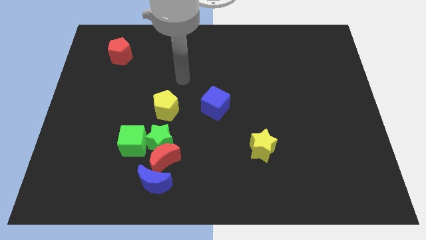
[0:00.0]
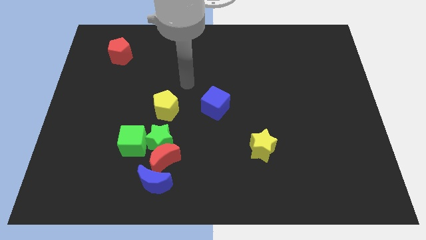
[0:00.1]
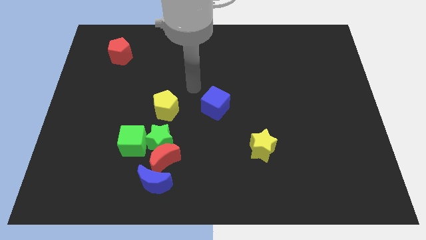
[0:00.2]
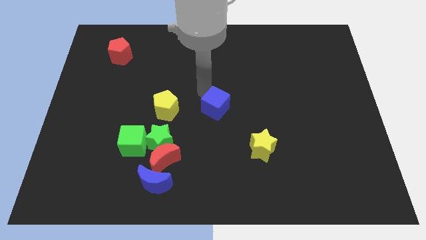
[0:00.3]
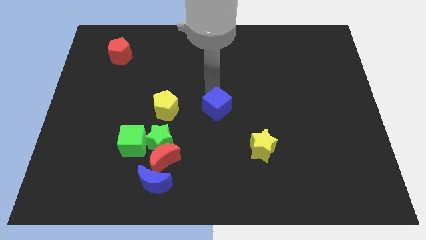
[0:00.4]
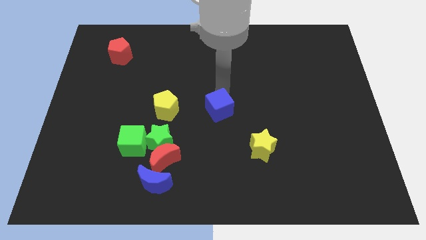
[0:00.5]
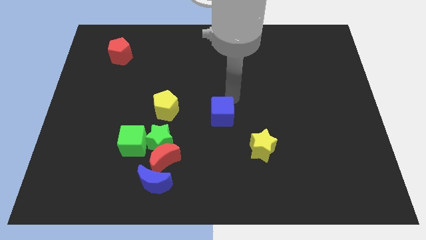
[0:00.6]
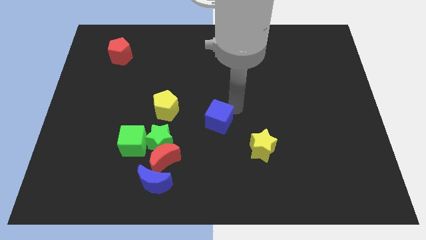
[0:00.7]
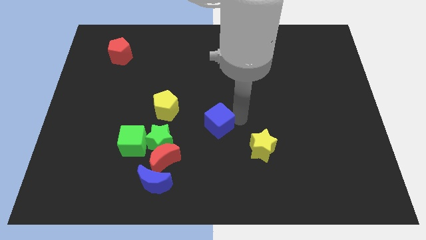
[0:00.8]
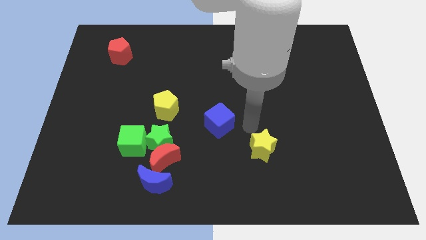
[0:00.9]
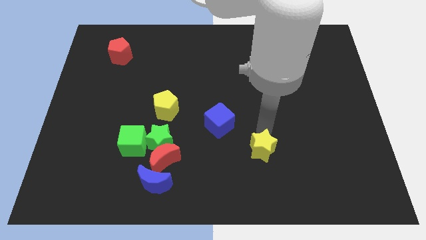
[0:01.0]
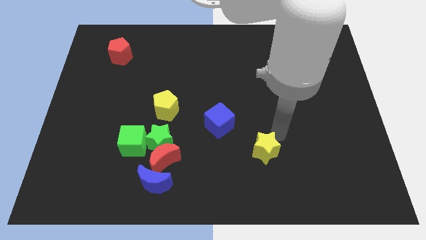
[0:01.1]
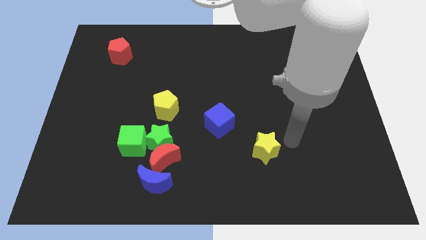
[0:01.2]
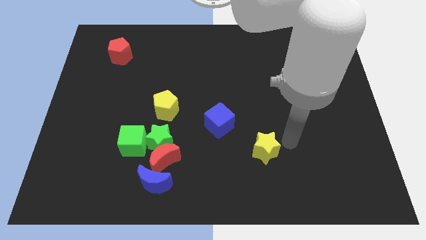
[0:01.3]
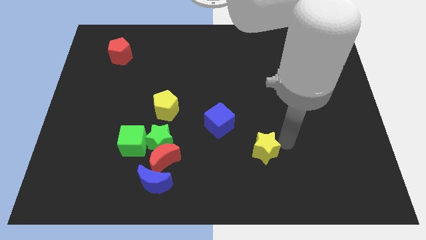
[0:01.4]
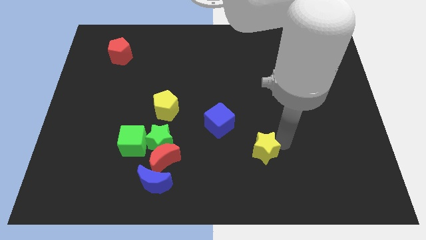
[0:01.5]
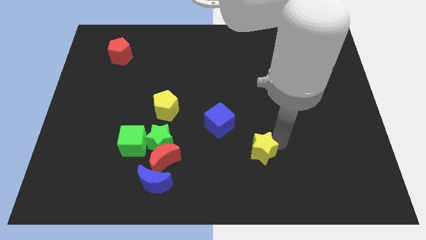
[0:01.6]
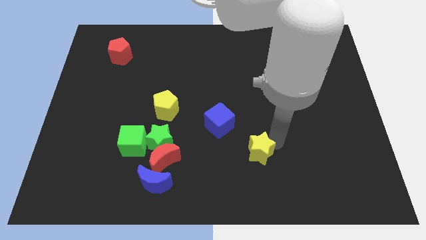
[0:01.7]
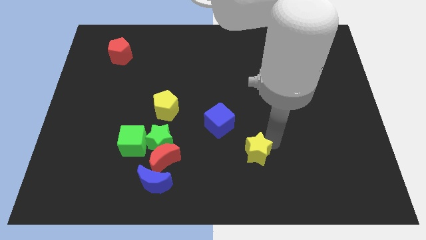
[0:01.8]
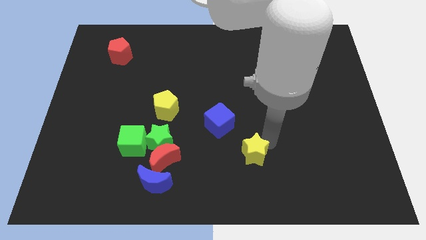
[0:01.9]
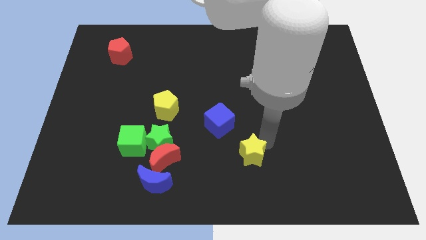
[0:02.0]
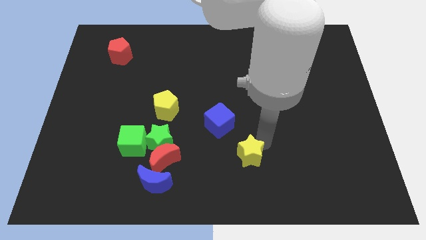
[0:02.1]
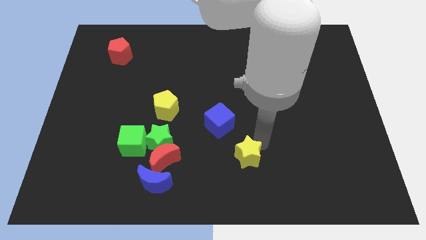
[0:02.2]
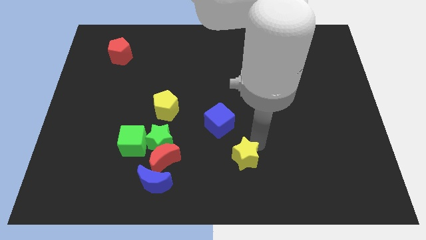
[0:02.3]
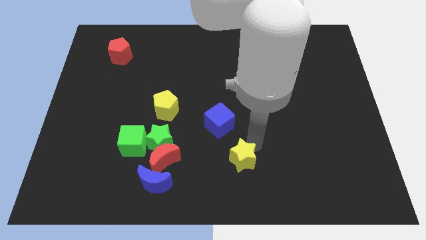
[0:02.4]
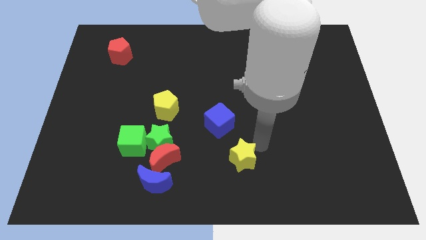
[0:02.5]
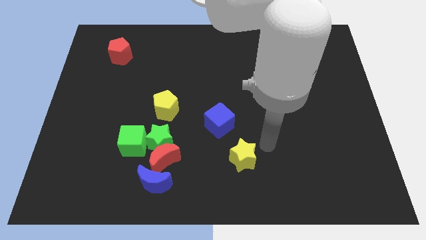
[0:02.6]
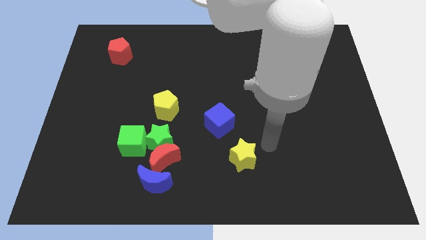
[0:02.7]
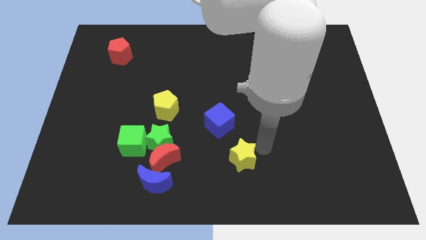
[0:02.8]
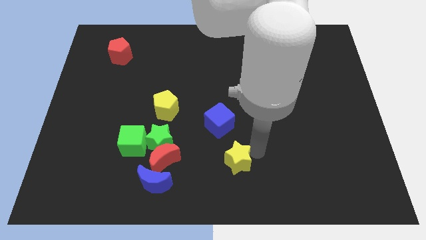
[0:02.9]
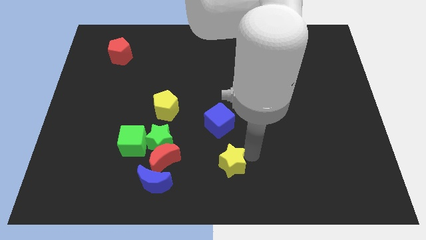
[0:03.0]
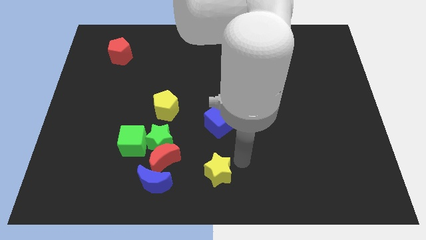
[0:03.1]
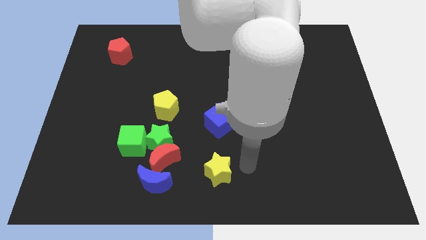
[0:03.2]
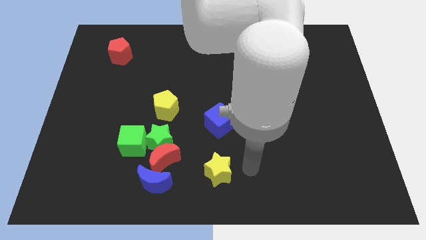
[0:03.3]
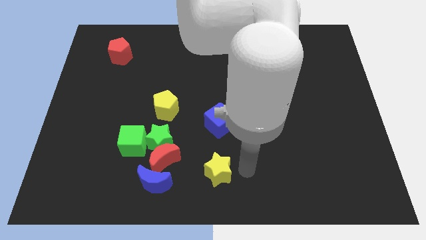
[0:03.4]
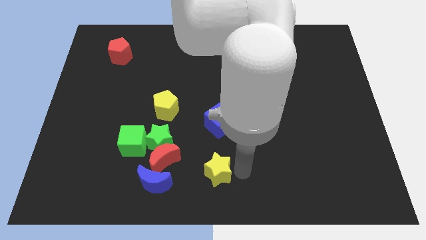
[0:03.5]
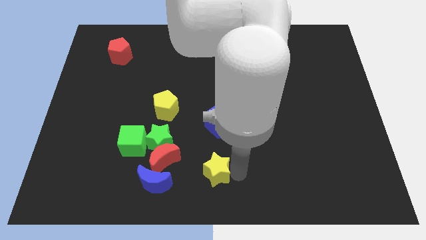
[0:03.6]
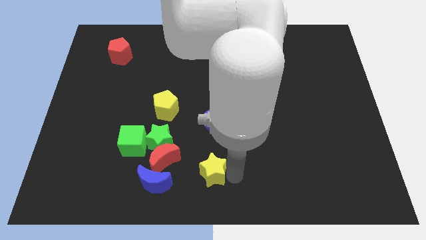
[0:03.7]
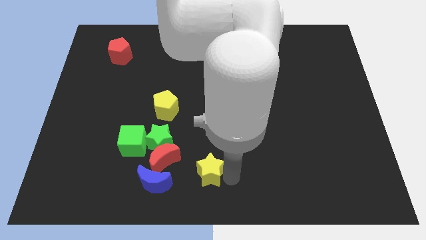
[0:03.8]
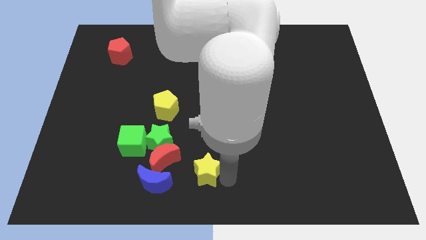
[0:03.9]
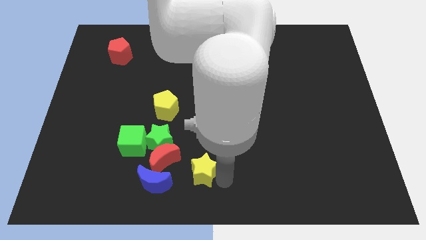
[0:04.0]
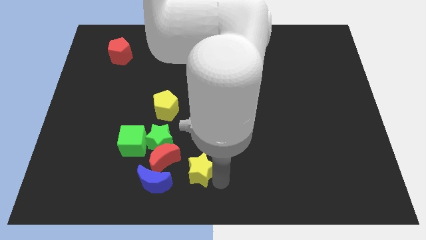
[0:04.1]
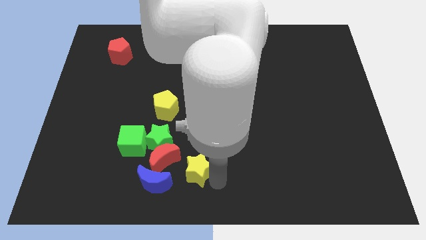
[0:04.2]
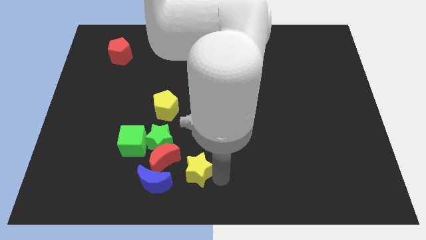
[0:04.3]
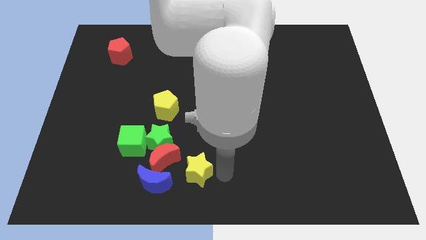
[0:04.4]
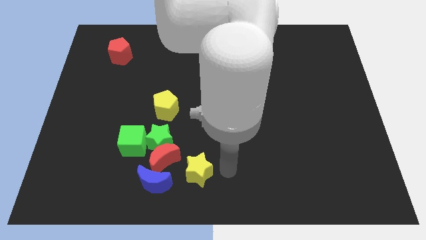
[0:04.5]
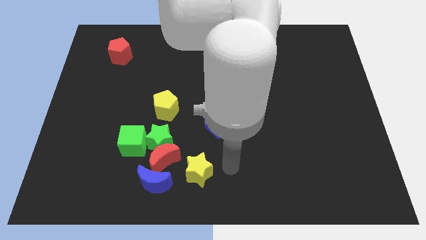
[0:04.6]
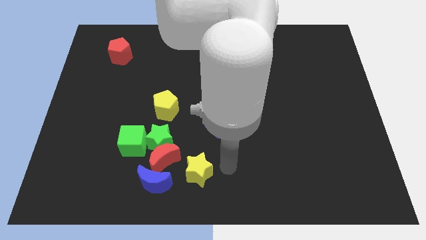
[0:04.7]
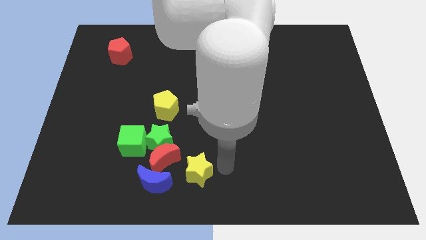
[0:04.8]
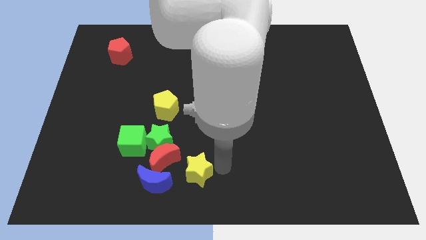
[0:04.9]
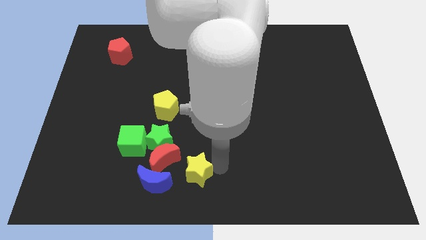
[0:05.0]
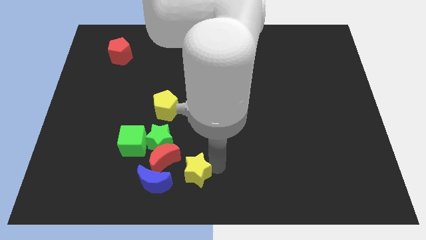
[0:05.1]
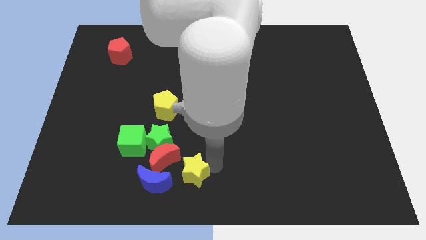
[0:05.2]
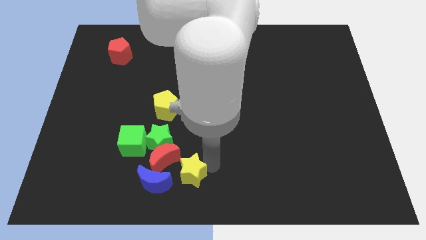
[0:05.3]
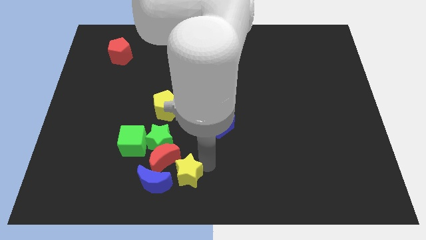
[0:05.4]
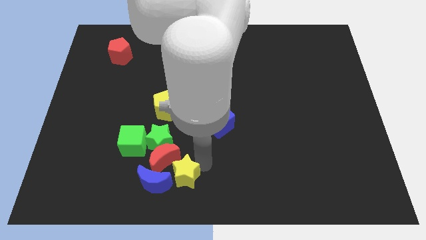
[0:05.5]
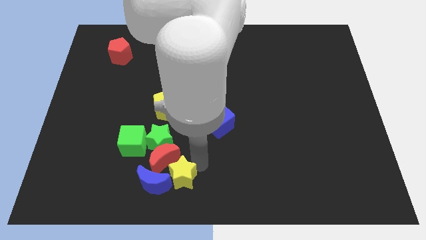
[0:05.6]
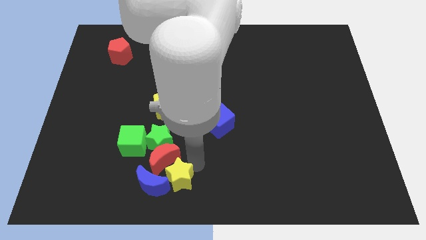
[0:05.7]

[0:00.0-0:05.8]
put the yellow star close to the blue moon

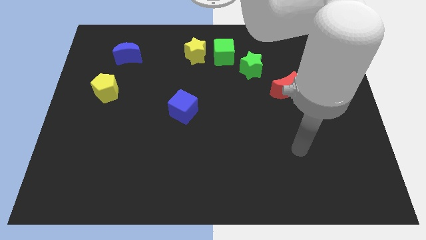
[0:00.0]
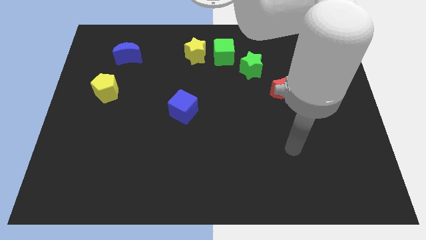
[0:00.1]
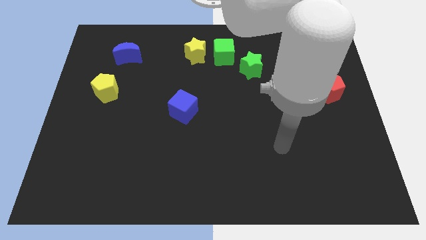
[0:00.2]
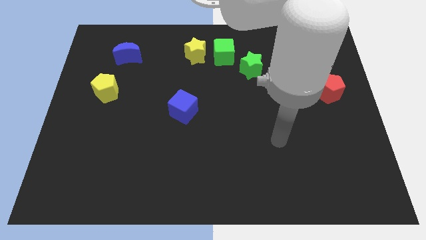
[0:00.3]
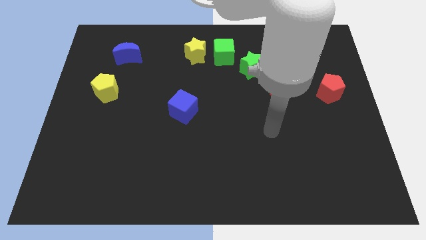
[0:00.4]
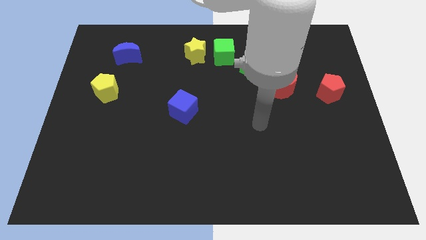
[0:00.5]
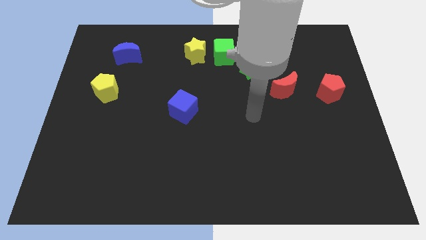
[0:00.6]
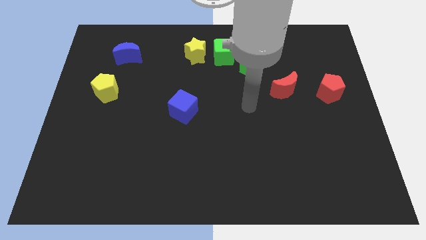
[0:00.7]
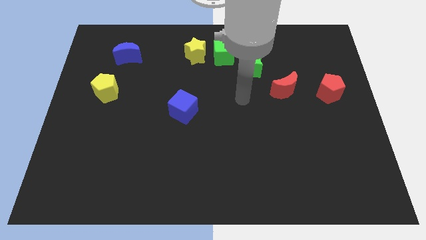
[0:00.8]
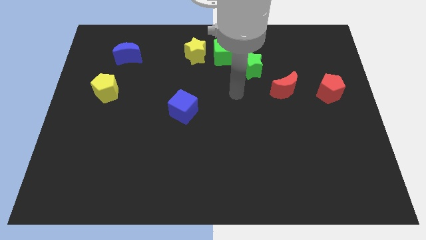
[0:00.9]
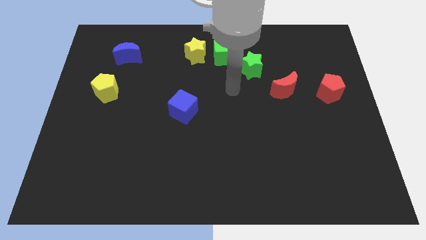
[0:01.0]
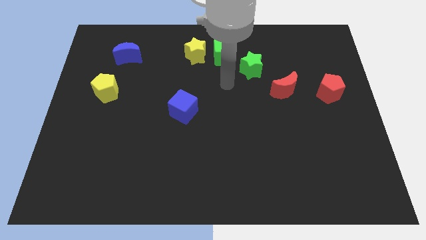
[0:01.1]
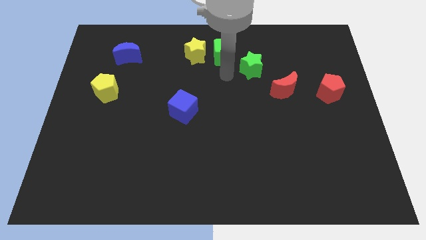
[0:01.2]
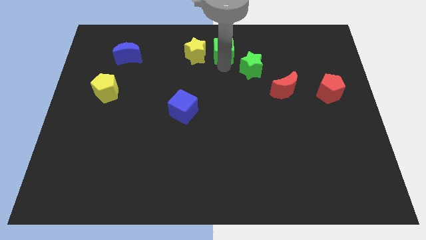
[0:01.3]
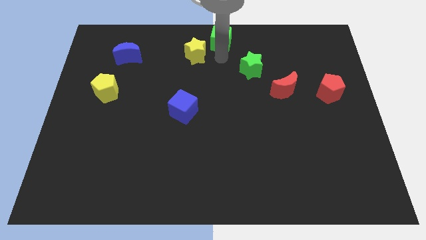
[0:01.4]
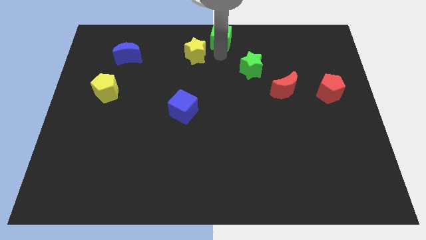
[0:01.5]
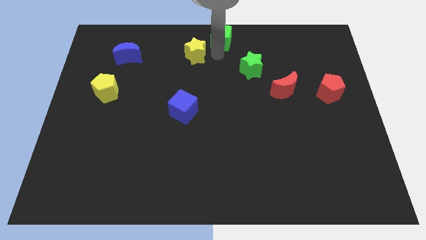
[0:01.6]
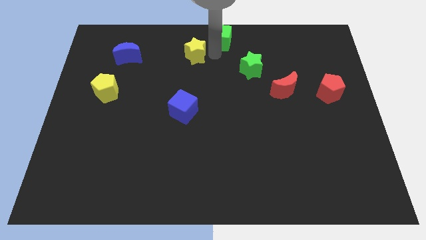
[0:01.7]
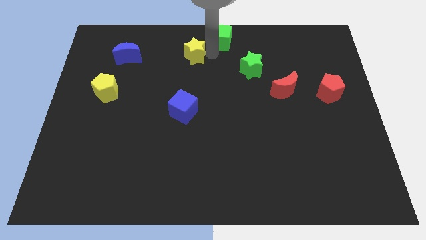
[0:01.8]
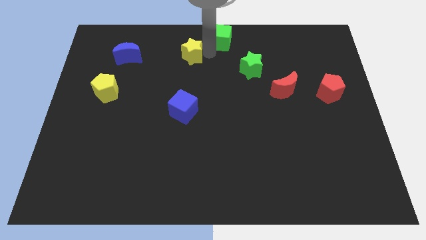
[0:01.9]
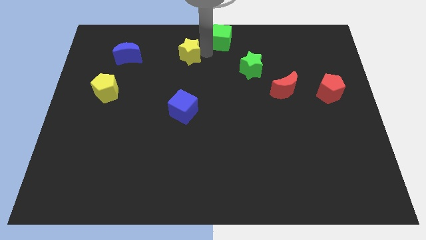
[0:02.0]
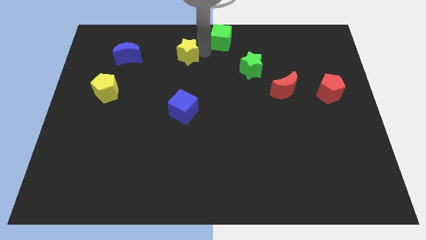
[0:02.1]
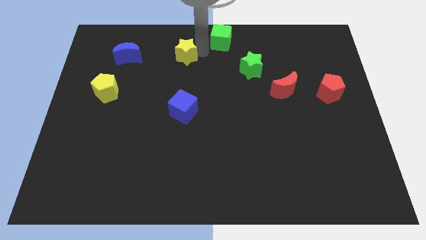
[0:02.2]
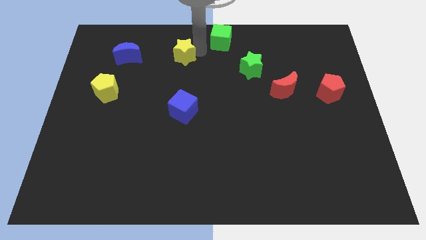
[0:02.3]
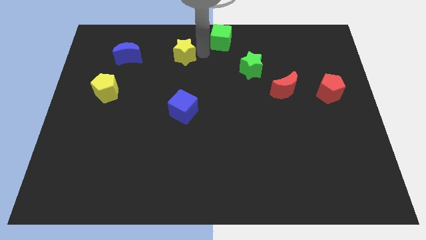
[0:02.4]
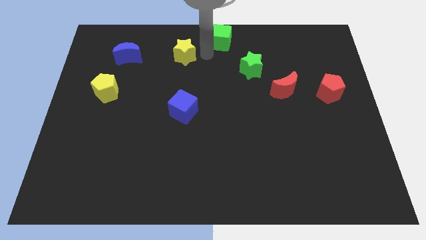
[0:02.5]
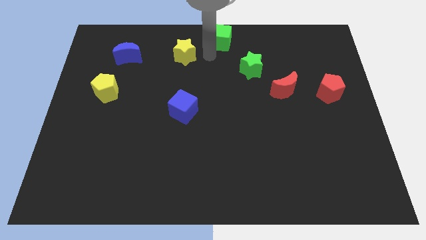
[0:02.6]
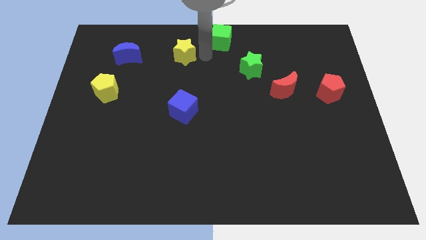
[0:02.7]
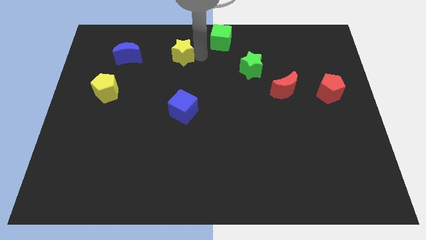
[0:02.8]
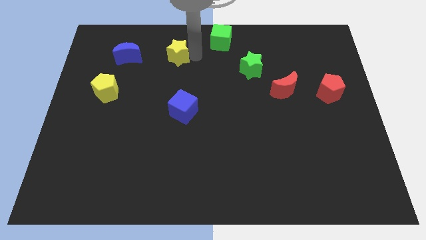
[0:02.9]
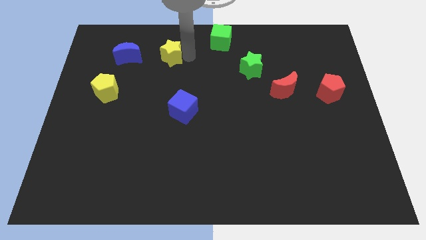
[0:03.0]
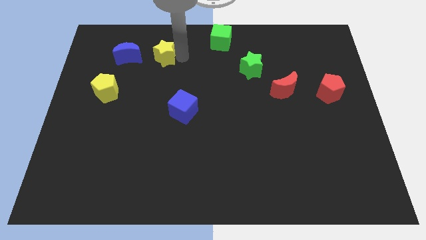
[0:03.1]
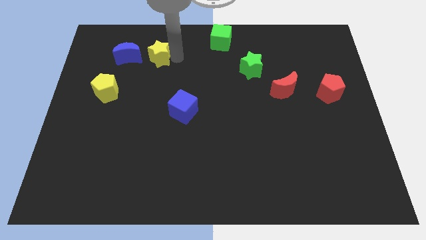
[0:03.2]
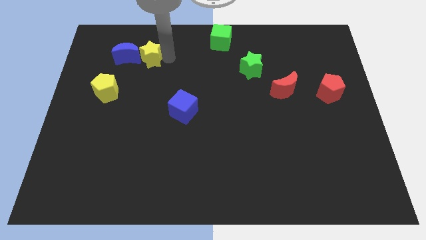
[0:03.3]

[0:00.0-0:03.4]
put the yellow star to the blue moon
